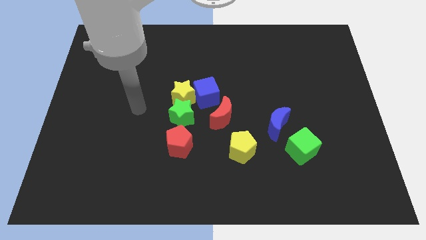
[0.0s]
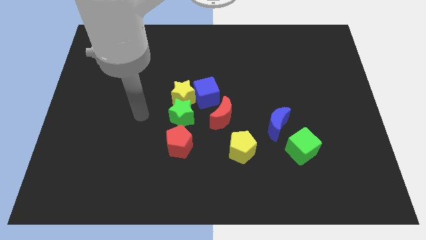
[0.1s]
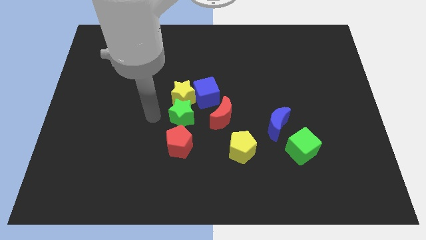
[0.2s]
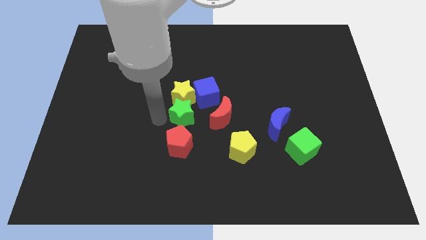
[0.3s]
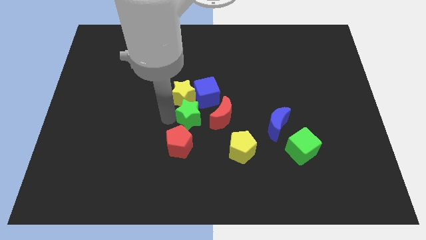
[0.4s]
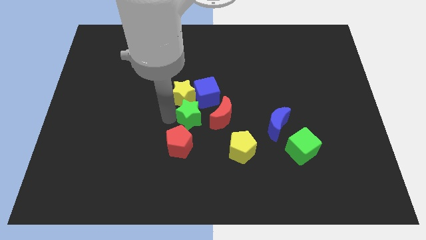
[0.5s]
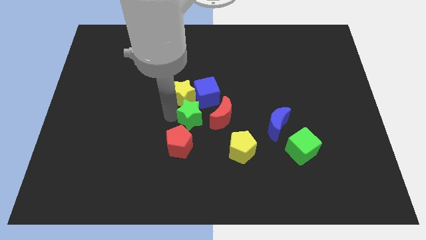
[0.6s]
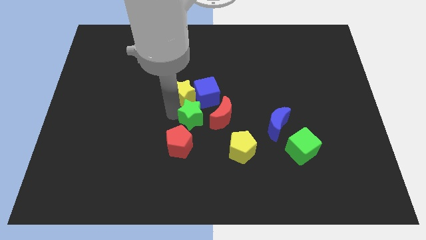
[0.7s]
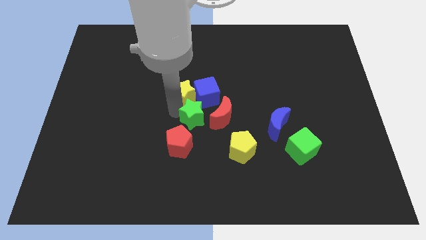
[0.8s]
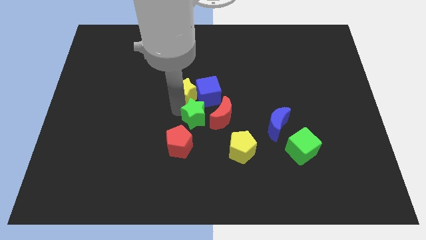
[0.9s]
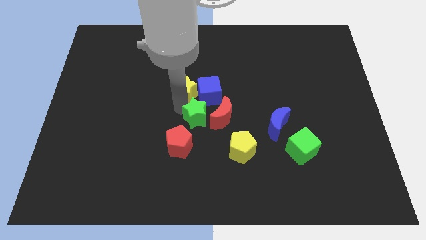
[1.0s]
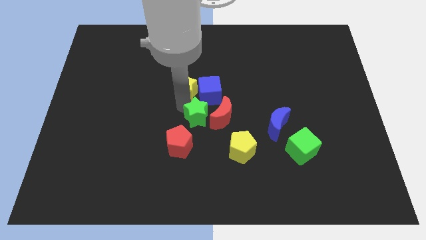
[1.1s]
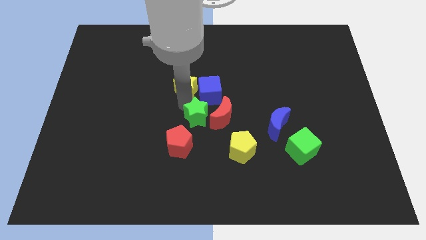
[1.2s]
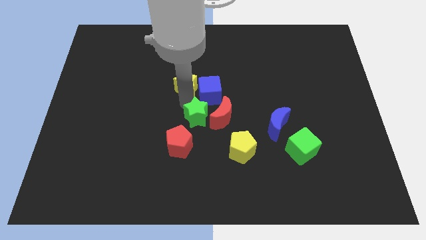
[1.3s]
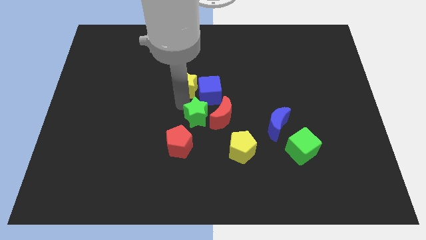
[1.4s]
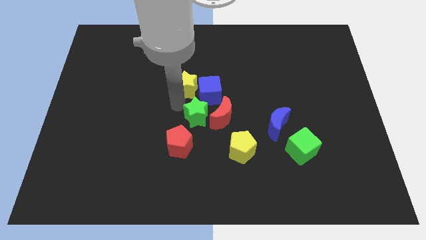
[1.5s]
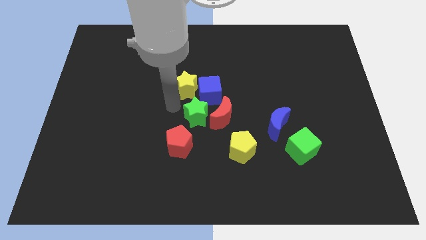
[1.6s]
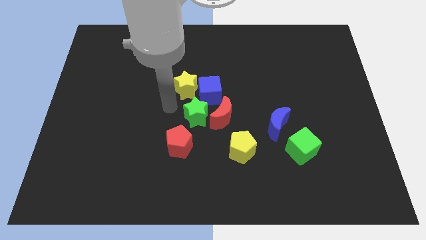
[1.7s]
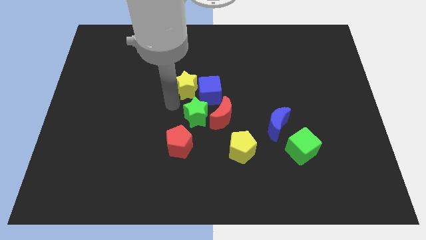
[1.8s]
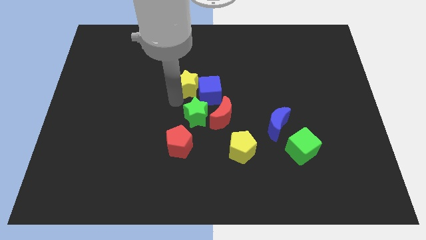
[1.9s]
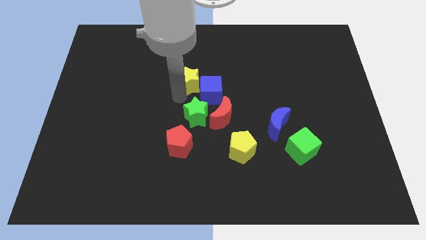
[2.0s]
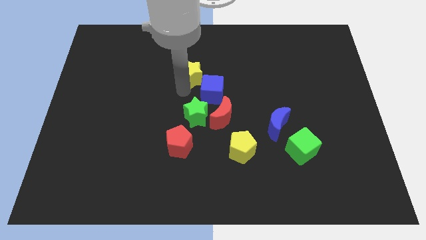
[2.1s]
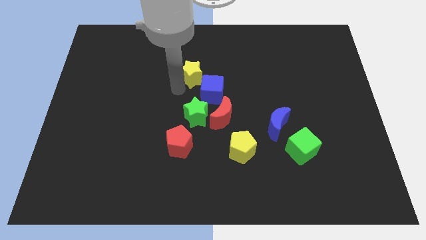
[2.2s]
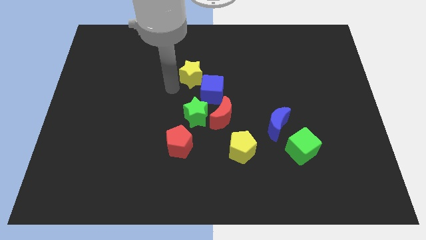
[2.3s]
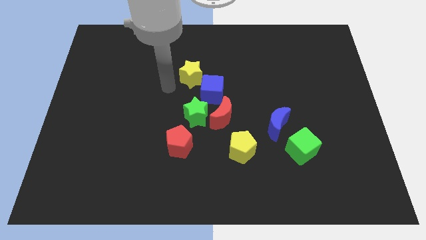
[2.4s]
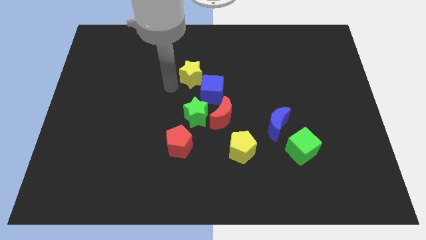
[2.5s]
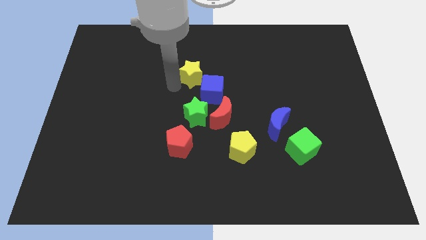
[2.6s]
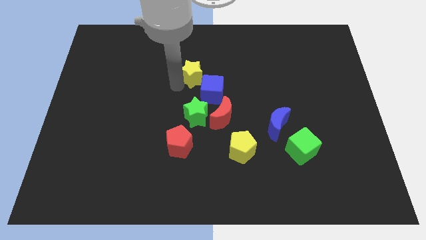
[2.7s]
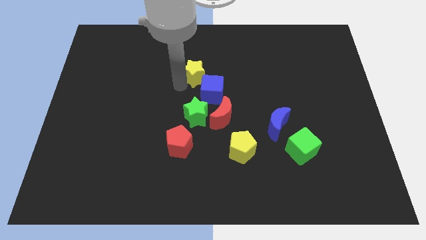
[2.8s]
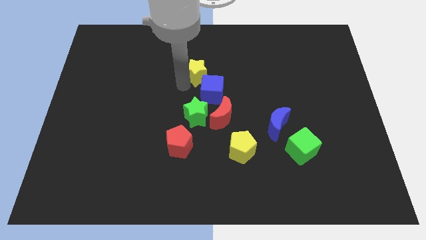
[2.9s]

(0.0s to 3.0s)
move the yellow star a little bit upwards and right

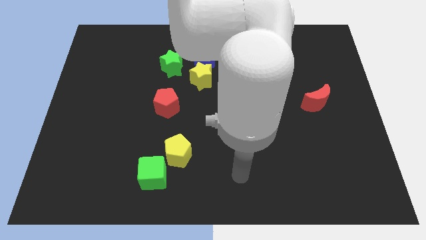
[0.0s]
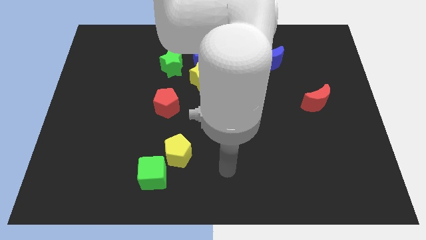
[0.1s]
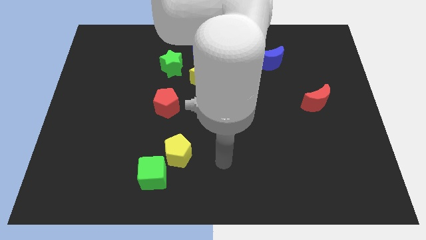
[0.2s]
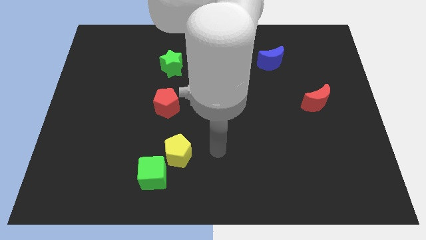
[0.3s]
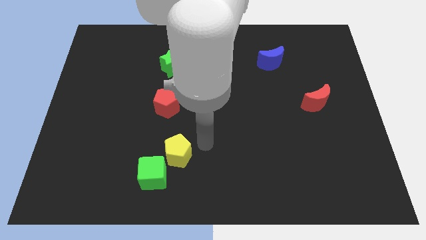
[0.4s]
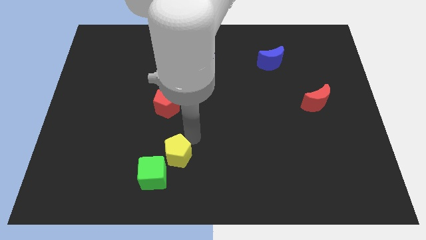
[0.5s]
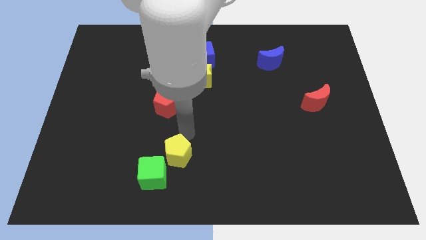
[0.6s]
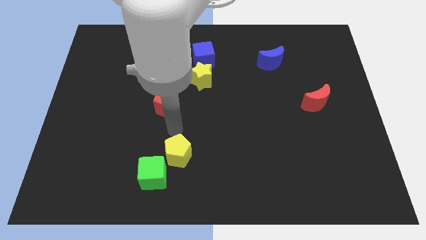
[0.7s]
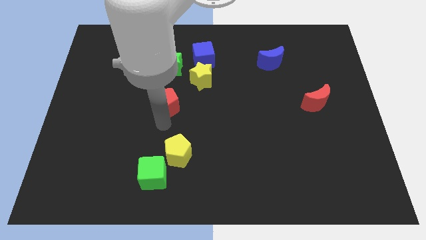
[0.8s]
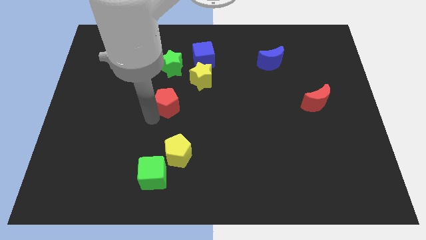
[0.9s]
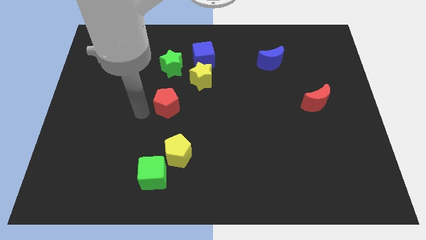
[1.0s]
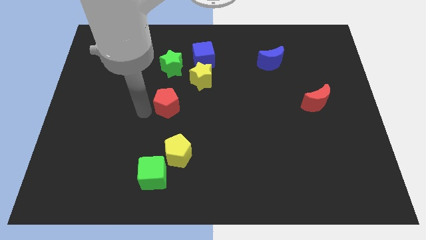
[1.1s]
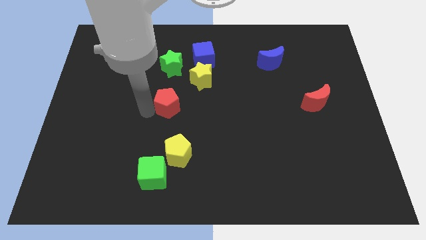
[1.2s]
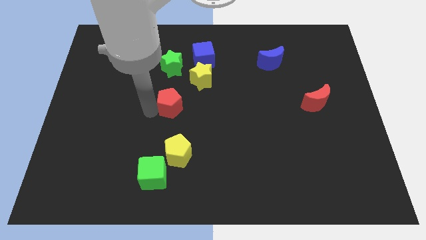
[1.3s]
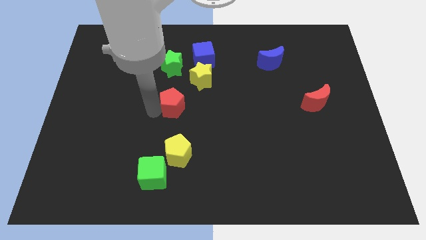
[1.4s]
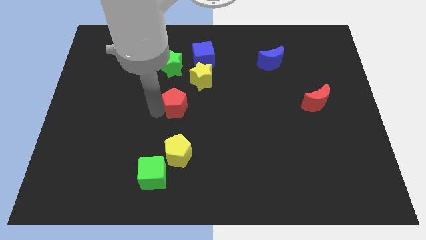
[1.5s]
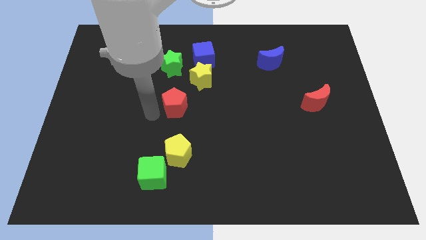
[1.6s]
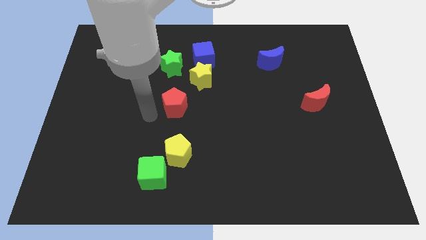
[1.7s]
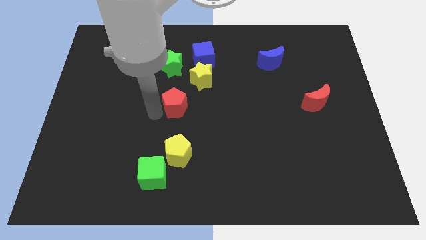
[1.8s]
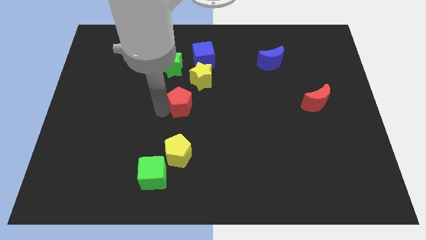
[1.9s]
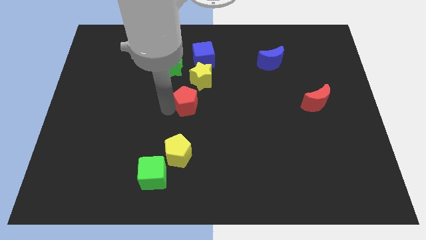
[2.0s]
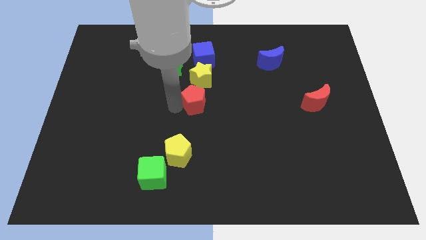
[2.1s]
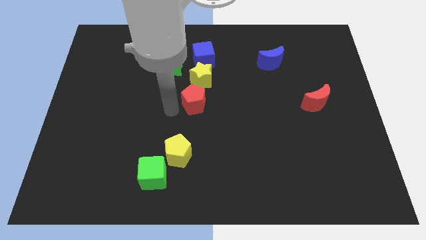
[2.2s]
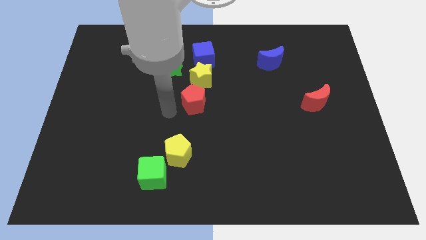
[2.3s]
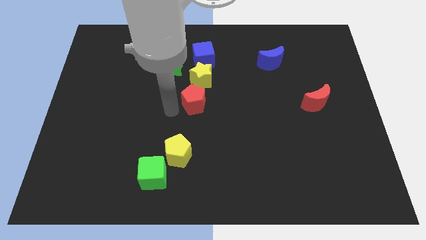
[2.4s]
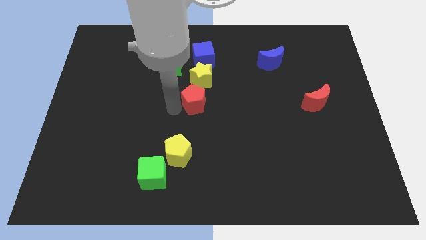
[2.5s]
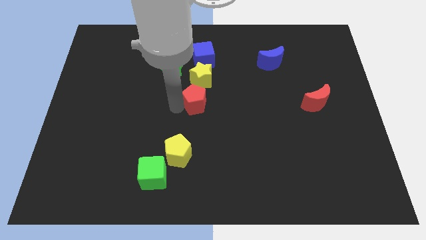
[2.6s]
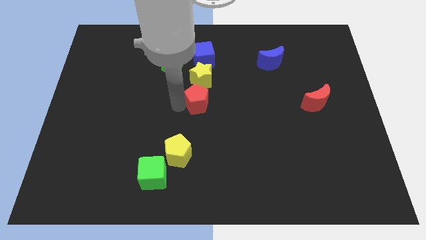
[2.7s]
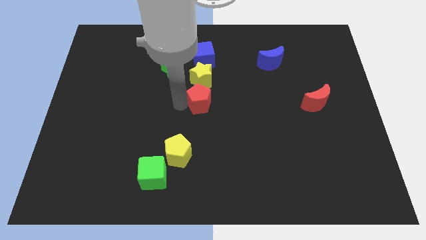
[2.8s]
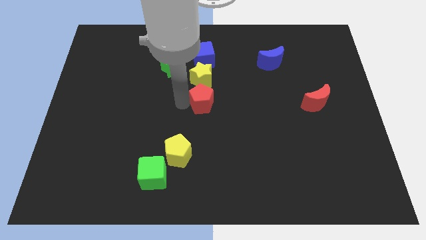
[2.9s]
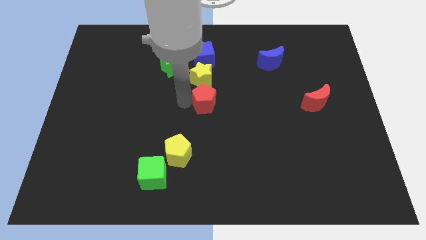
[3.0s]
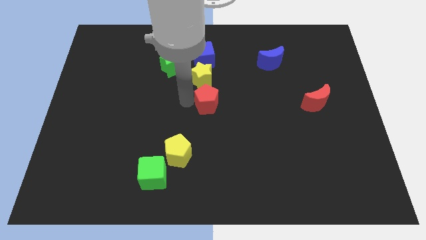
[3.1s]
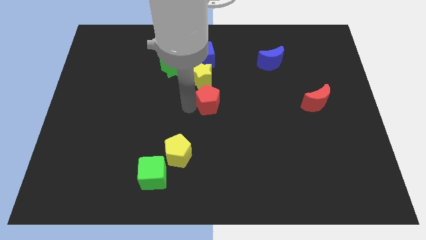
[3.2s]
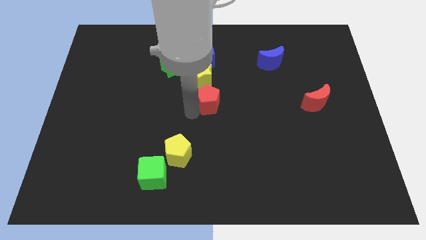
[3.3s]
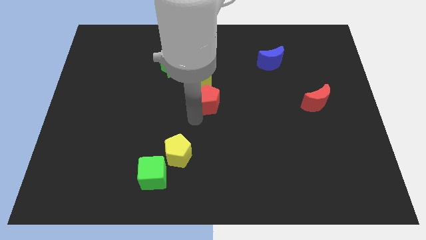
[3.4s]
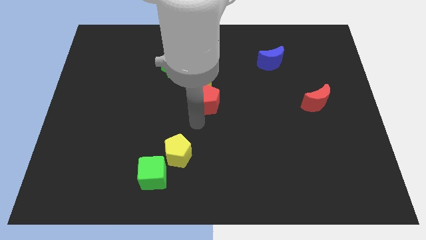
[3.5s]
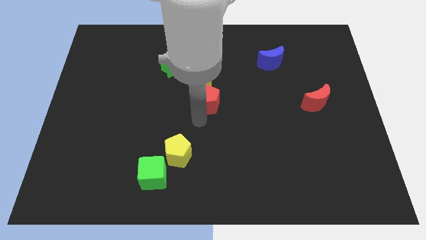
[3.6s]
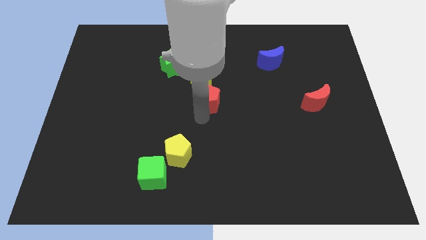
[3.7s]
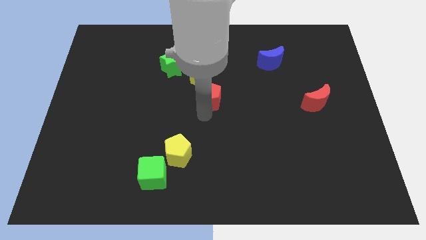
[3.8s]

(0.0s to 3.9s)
push the red pentagon upwards and to the right diagonally a bit

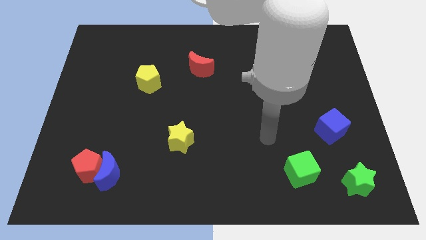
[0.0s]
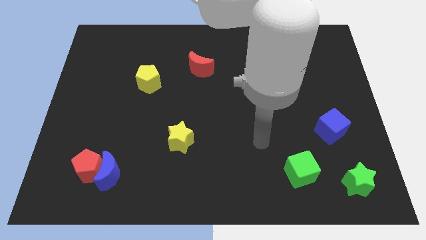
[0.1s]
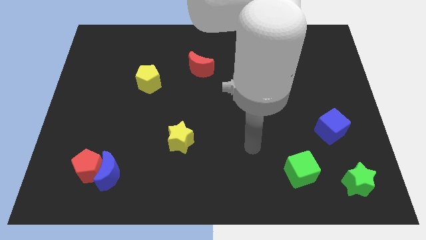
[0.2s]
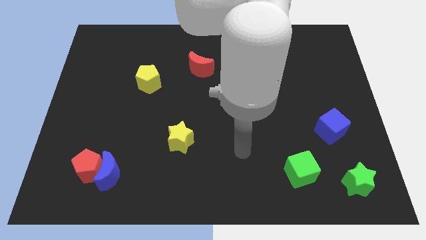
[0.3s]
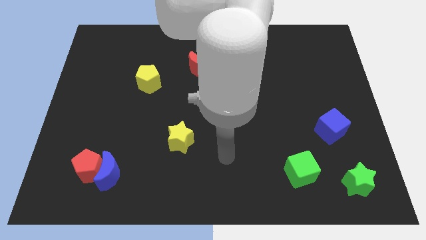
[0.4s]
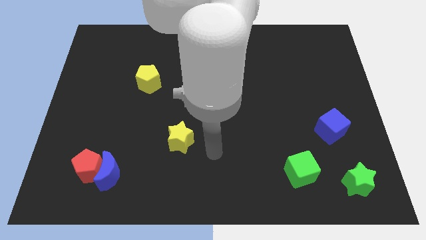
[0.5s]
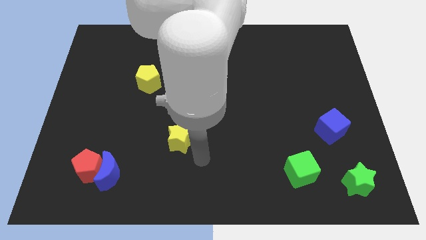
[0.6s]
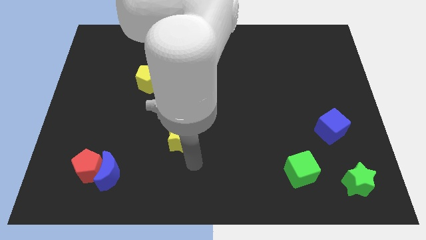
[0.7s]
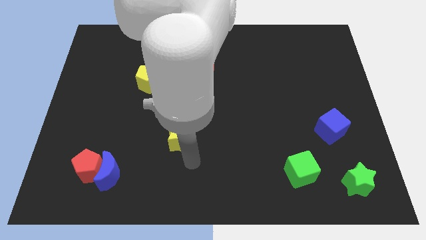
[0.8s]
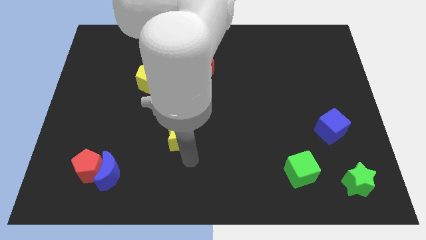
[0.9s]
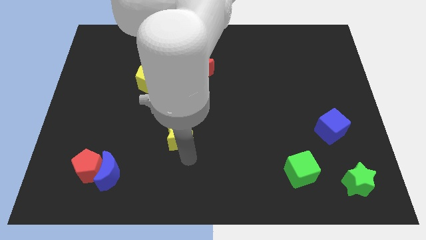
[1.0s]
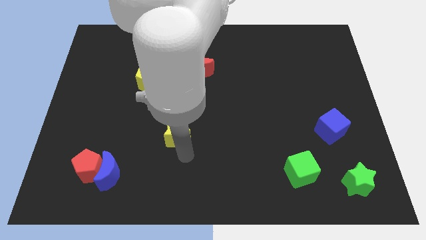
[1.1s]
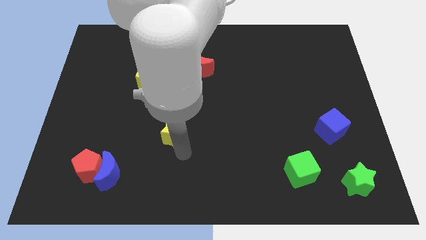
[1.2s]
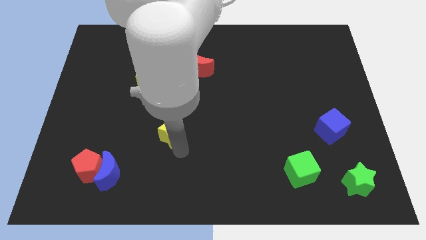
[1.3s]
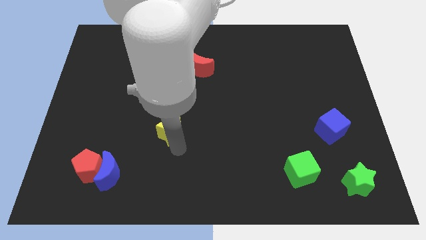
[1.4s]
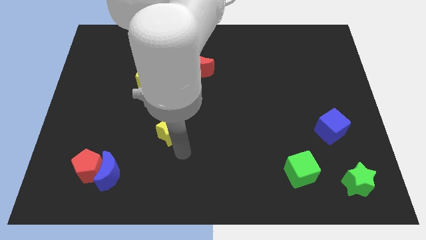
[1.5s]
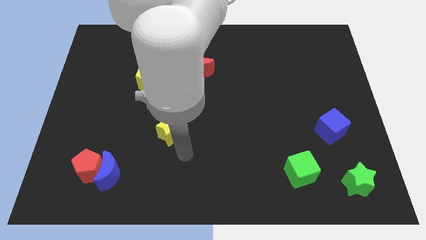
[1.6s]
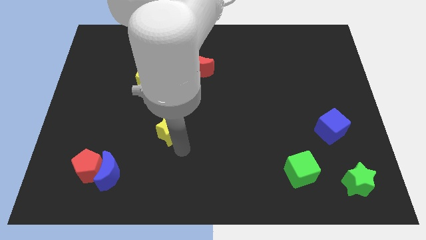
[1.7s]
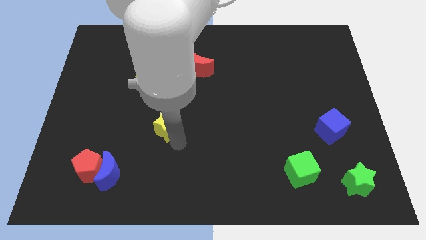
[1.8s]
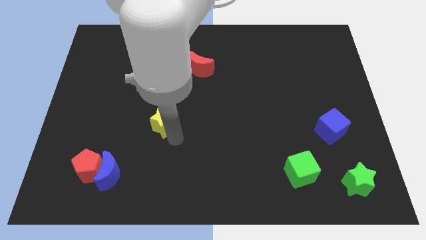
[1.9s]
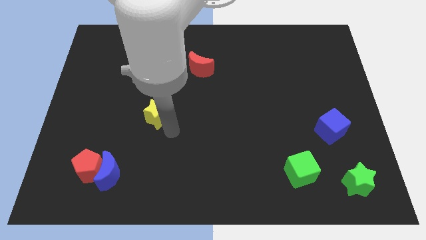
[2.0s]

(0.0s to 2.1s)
slightly push the yellow star diagonally upwards and to the left
